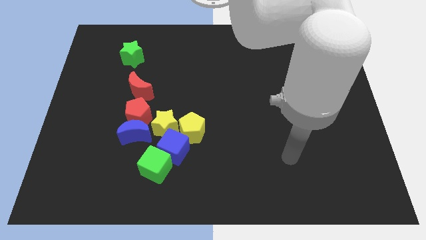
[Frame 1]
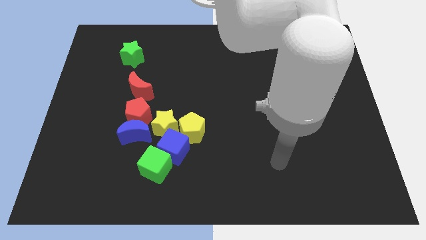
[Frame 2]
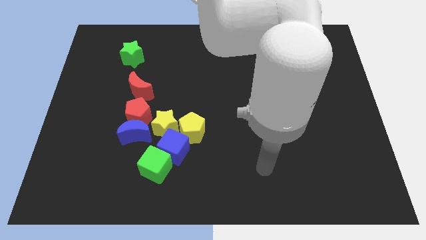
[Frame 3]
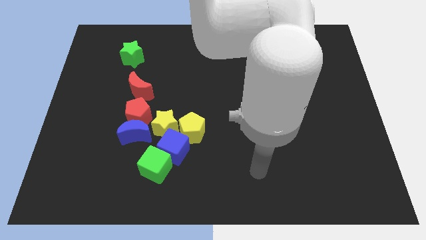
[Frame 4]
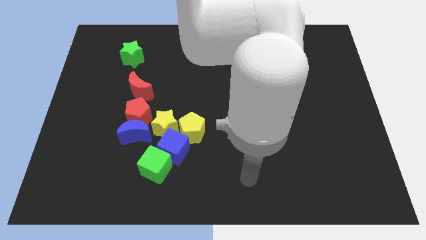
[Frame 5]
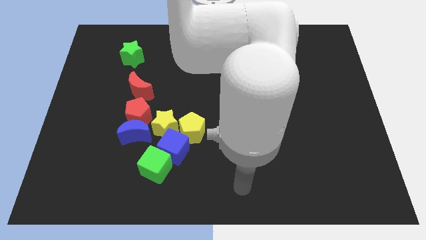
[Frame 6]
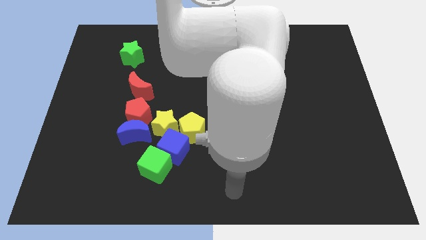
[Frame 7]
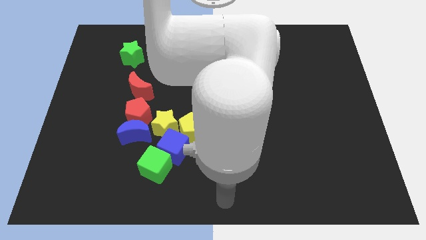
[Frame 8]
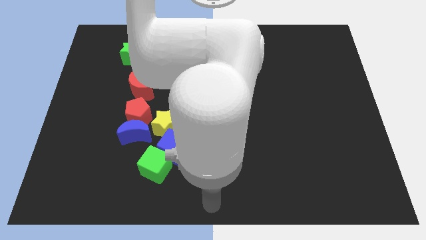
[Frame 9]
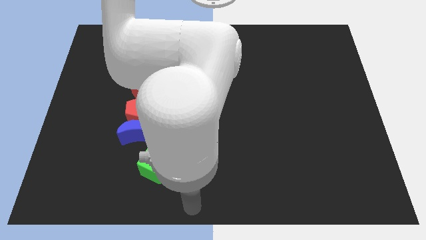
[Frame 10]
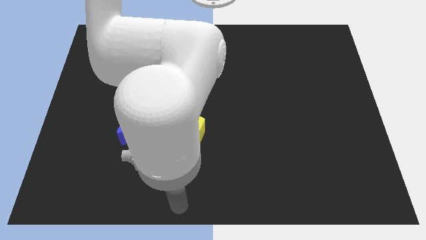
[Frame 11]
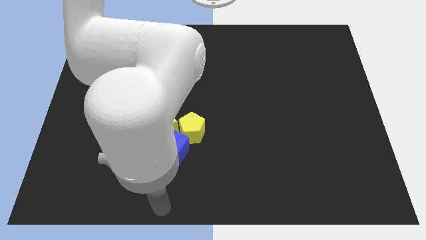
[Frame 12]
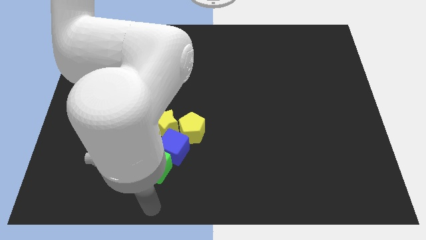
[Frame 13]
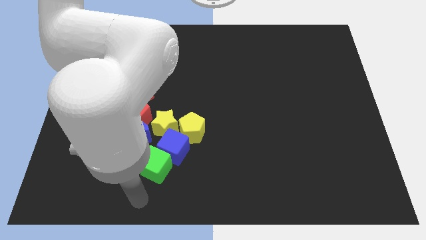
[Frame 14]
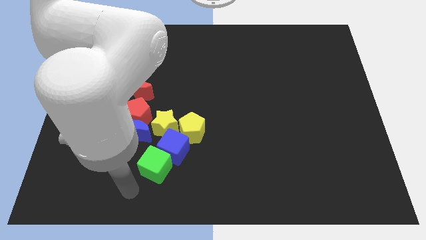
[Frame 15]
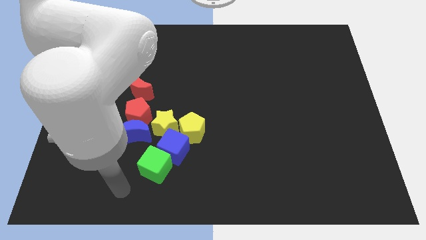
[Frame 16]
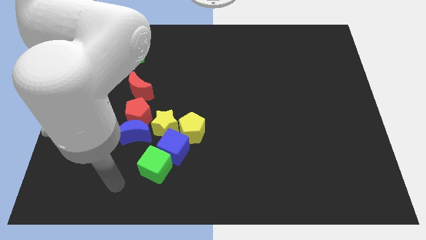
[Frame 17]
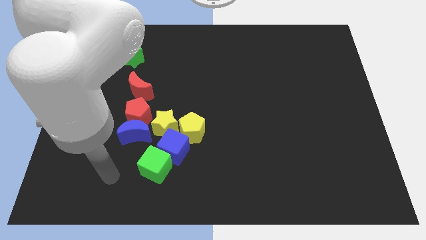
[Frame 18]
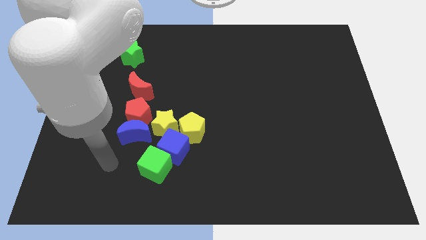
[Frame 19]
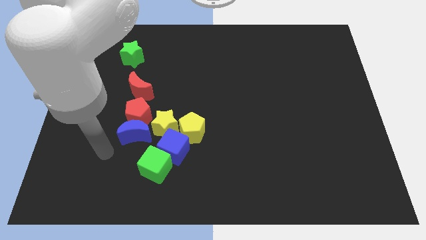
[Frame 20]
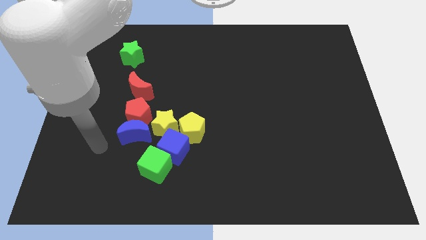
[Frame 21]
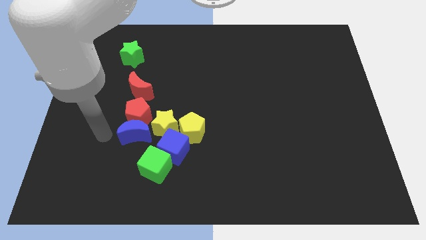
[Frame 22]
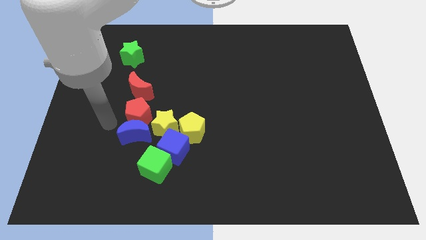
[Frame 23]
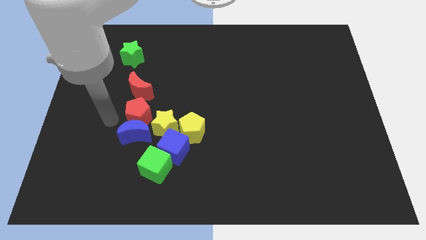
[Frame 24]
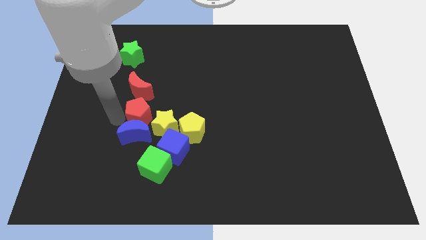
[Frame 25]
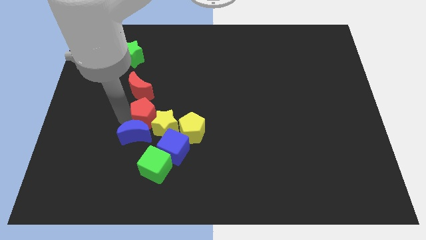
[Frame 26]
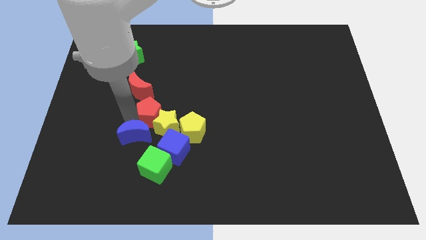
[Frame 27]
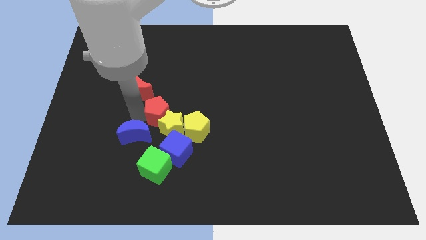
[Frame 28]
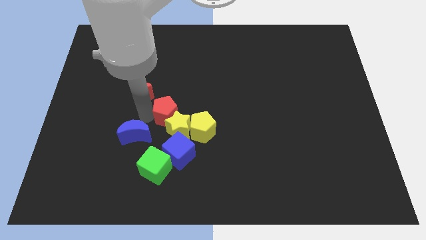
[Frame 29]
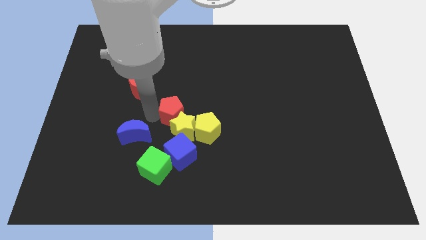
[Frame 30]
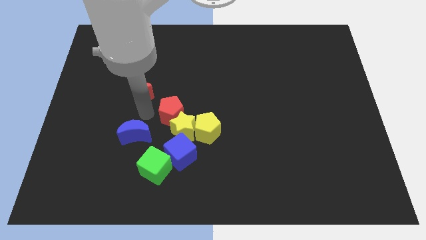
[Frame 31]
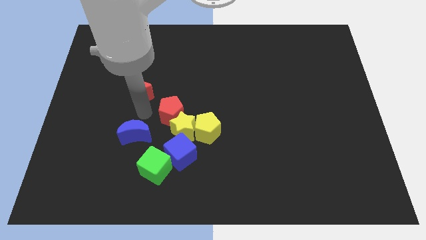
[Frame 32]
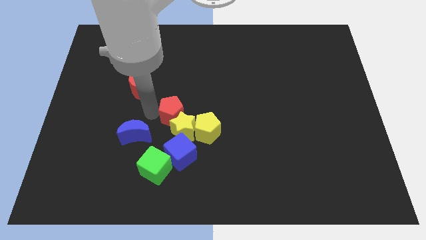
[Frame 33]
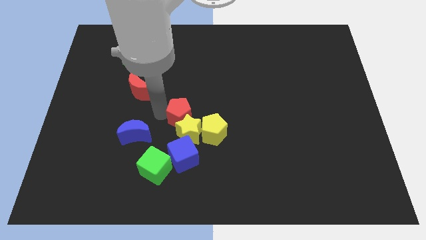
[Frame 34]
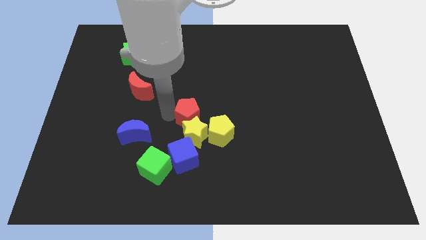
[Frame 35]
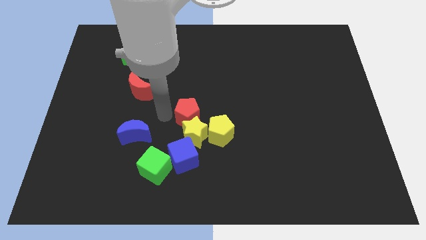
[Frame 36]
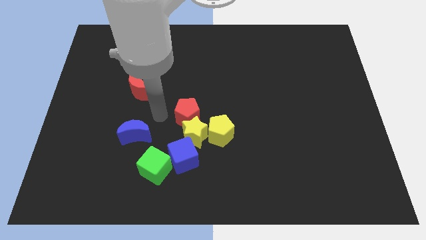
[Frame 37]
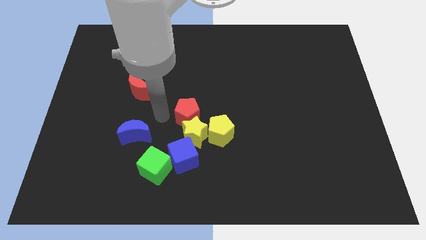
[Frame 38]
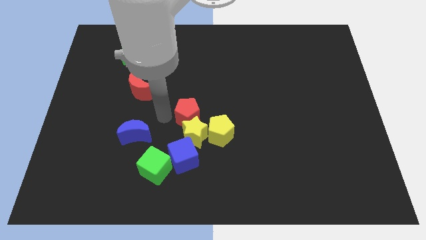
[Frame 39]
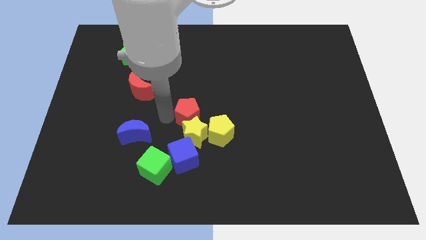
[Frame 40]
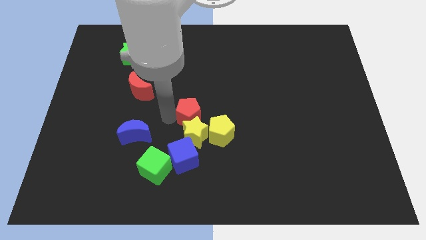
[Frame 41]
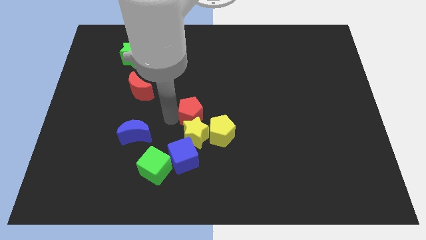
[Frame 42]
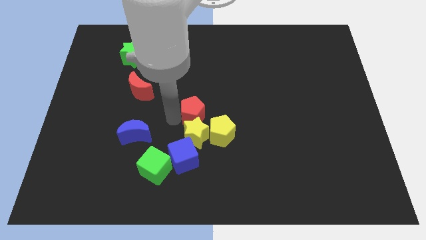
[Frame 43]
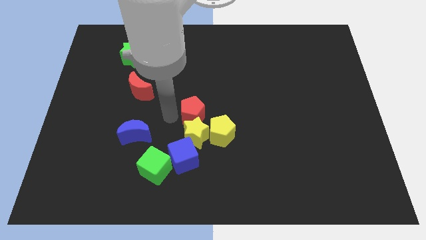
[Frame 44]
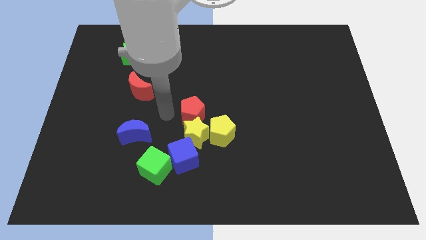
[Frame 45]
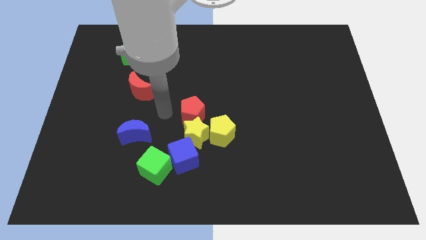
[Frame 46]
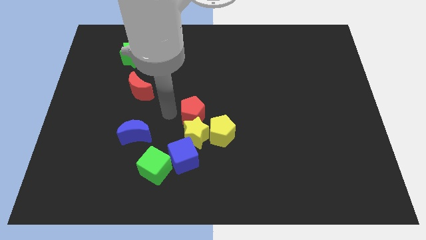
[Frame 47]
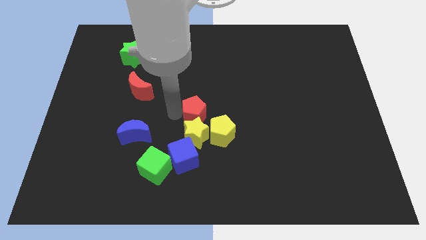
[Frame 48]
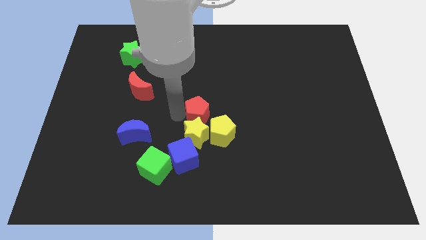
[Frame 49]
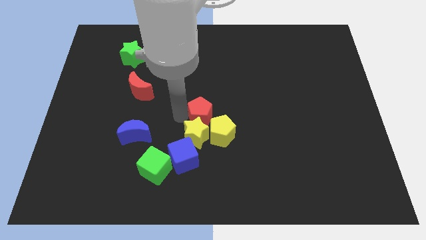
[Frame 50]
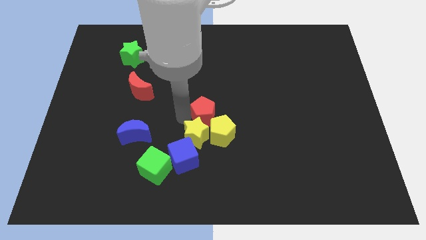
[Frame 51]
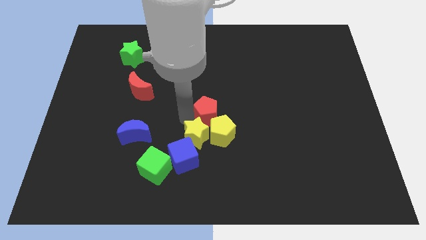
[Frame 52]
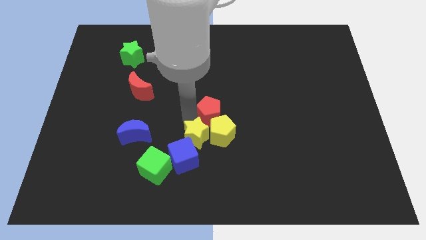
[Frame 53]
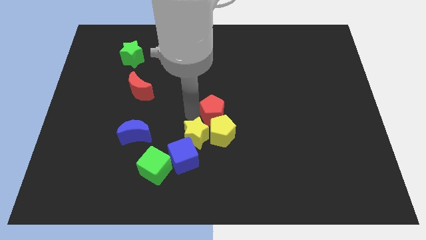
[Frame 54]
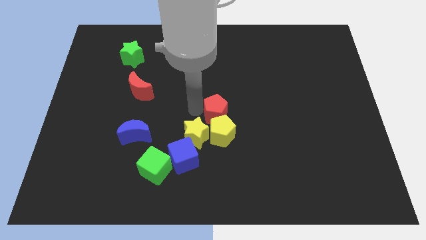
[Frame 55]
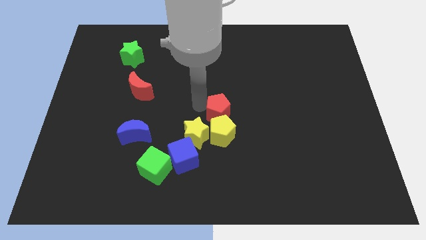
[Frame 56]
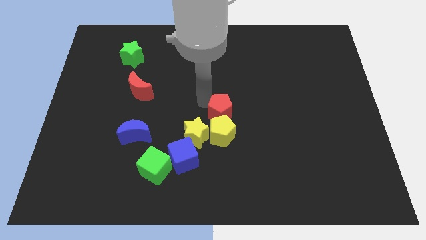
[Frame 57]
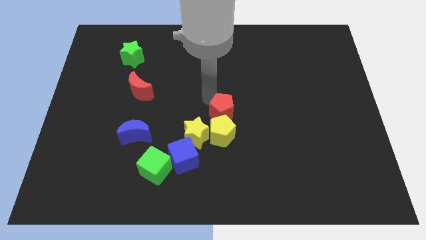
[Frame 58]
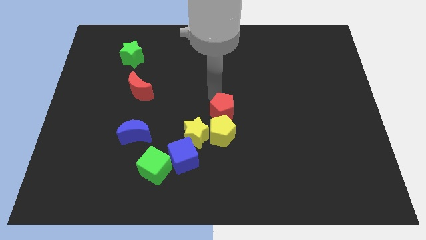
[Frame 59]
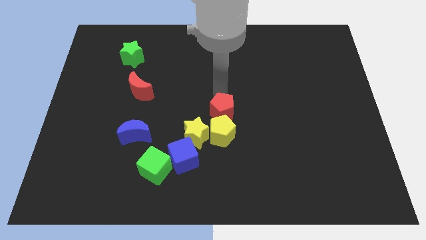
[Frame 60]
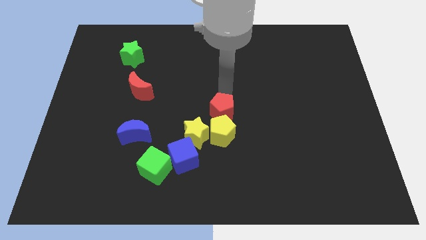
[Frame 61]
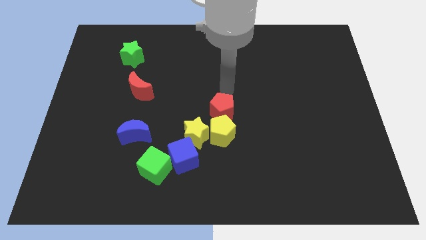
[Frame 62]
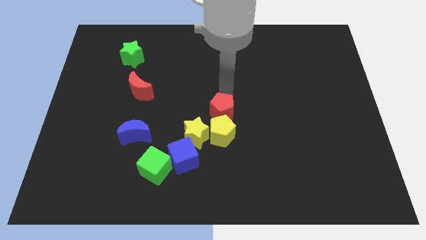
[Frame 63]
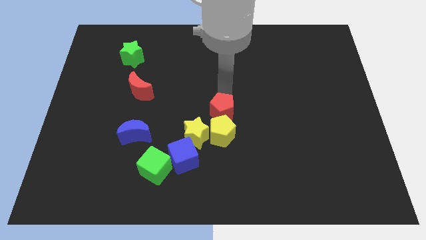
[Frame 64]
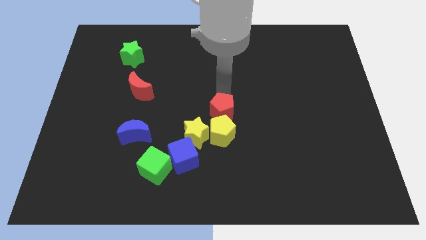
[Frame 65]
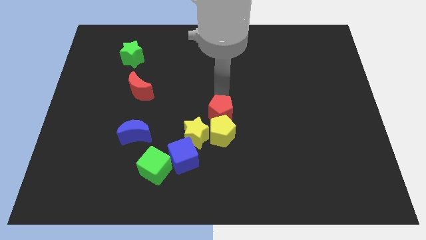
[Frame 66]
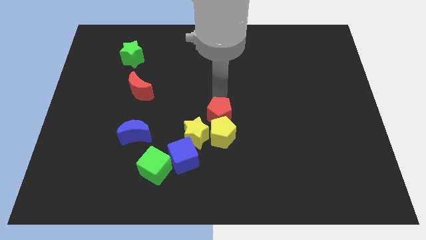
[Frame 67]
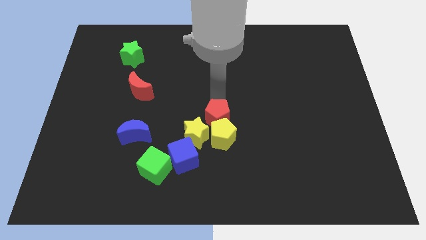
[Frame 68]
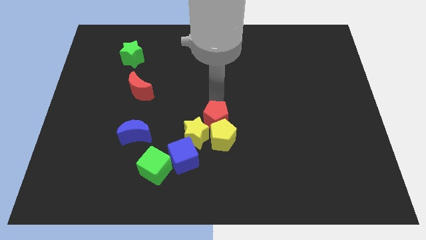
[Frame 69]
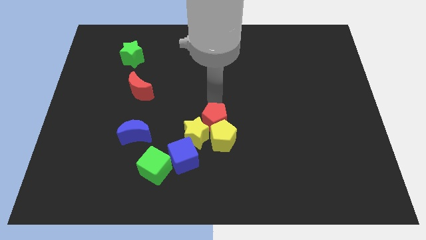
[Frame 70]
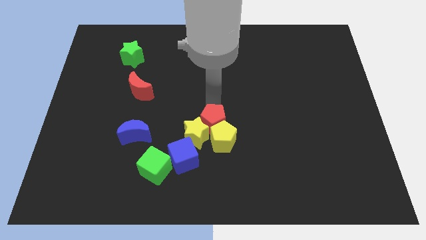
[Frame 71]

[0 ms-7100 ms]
push the red pentagon a bit downwards and to the right

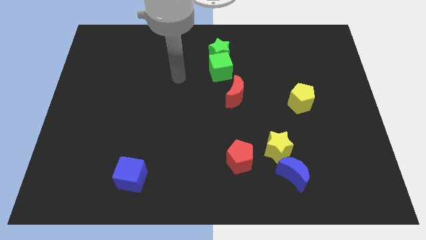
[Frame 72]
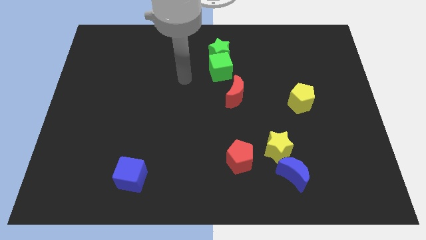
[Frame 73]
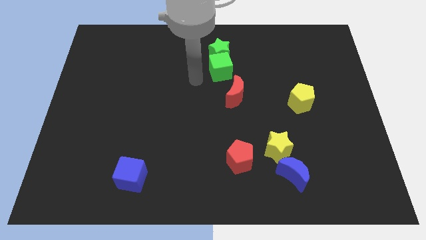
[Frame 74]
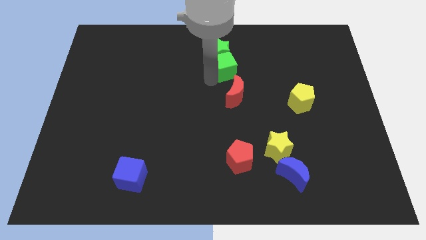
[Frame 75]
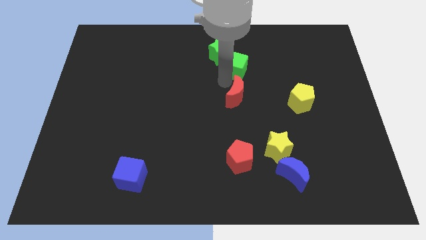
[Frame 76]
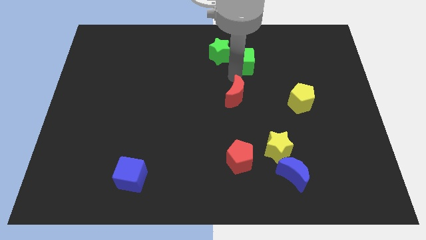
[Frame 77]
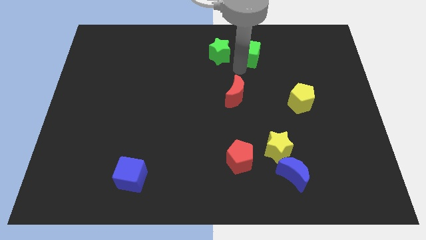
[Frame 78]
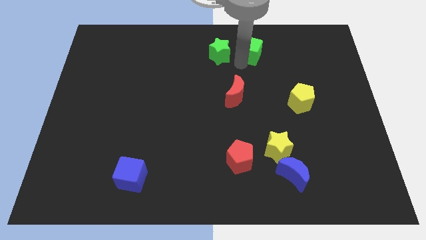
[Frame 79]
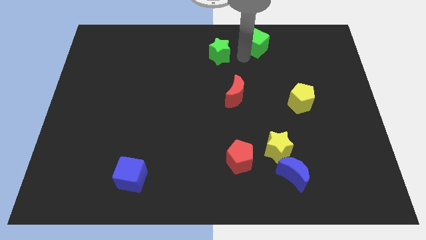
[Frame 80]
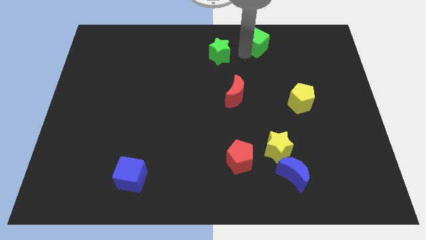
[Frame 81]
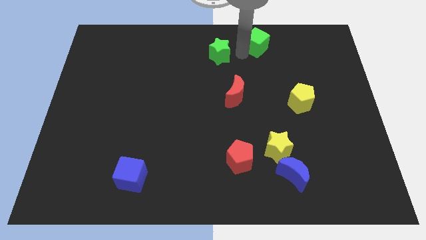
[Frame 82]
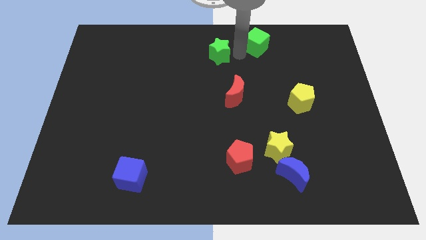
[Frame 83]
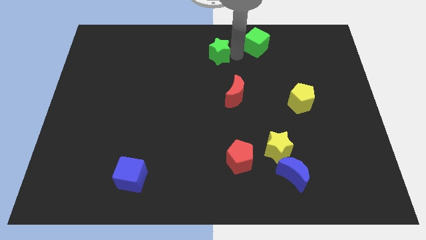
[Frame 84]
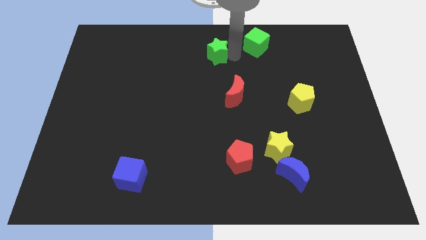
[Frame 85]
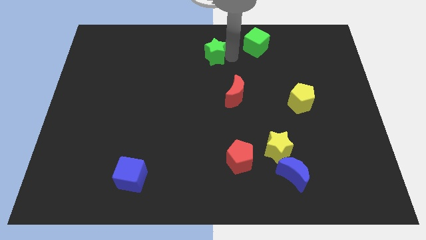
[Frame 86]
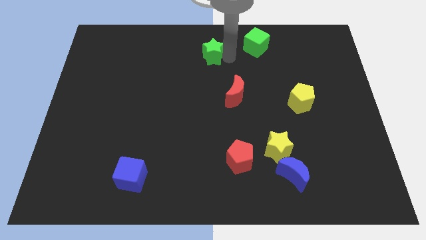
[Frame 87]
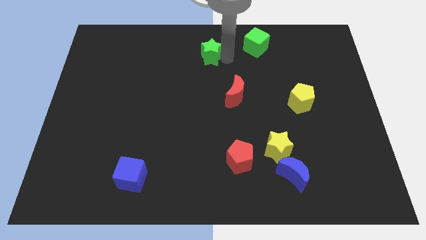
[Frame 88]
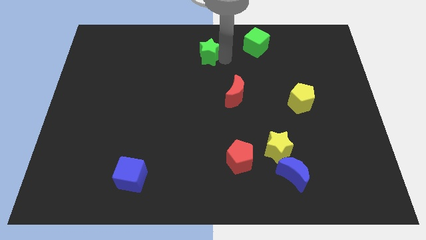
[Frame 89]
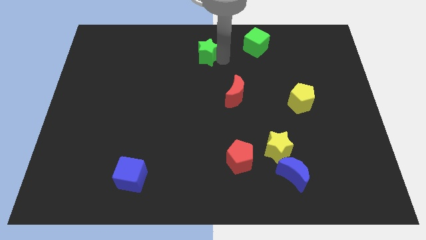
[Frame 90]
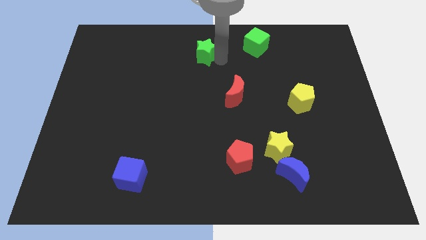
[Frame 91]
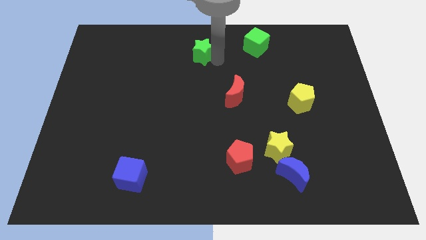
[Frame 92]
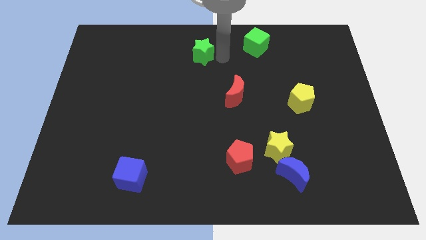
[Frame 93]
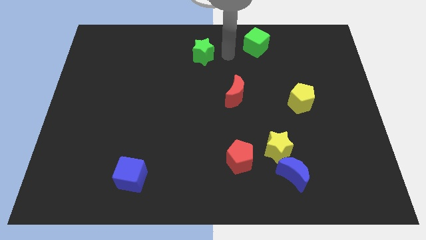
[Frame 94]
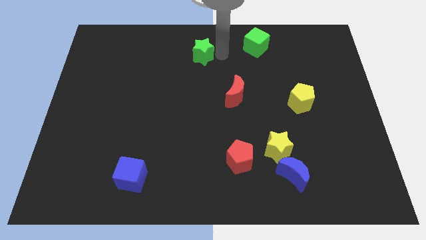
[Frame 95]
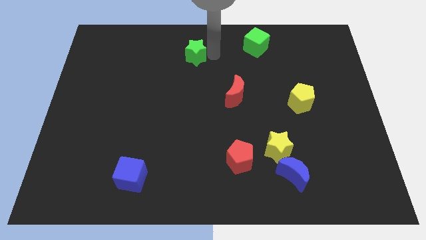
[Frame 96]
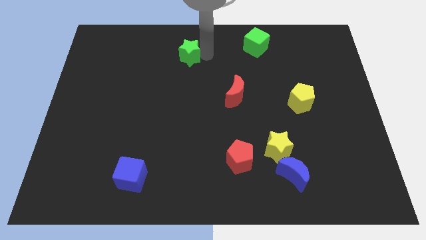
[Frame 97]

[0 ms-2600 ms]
move the green star left somewhat
